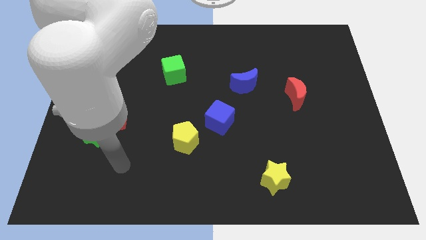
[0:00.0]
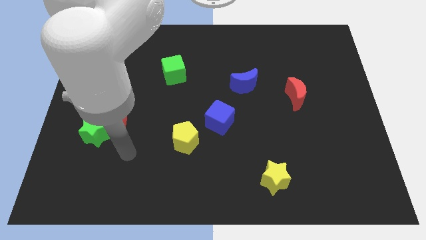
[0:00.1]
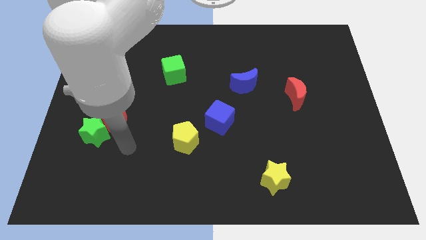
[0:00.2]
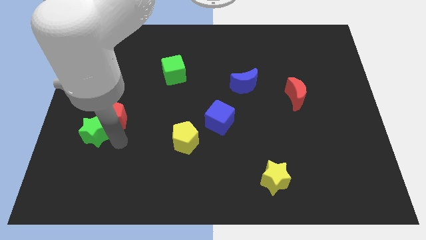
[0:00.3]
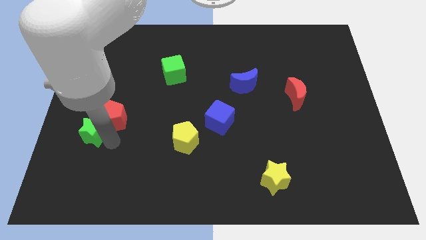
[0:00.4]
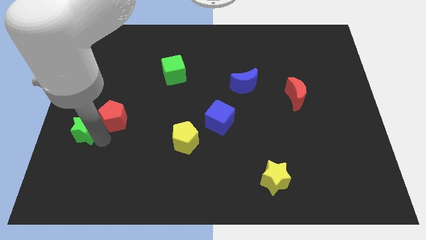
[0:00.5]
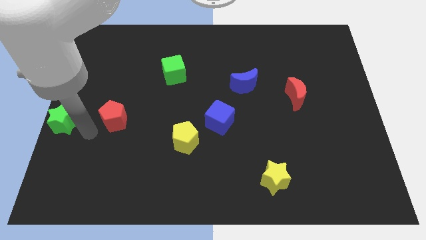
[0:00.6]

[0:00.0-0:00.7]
separate the red pentagon from the green star

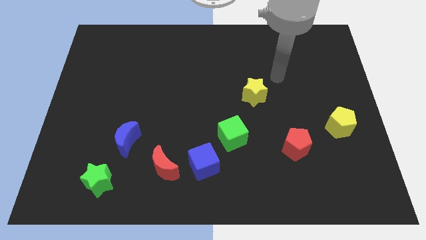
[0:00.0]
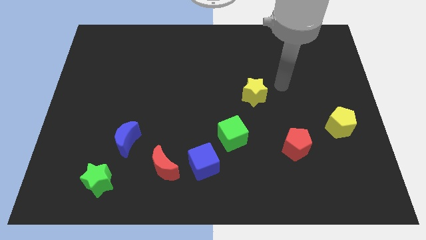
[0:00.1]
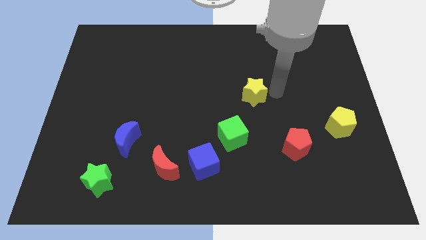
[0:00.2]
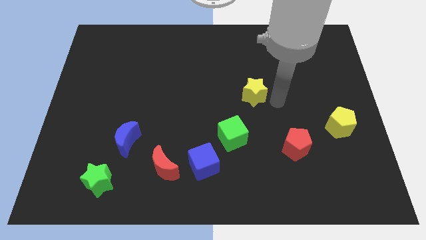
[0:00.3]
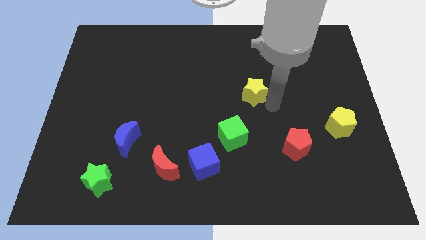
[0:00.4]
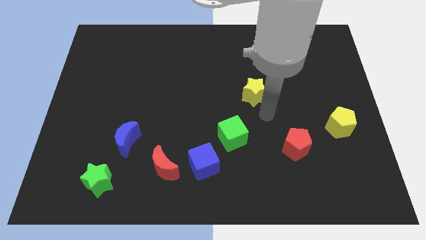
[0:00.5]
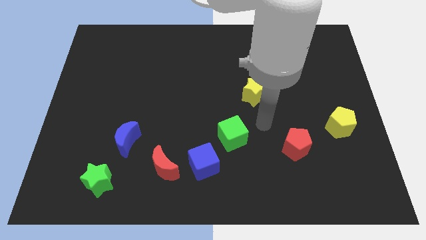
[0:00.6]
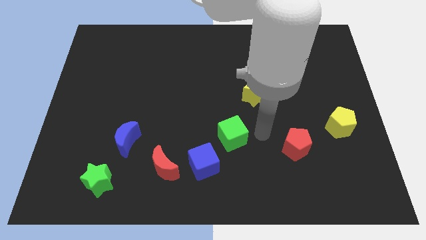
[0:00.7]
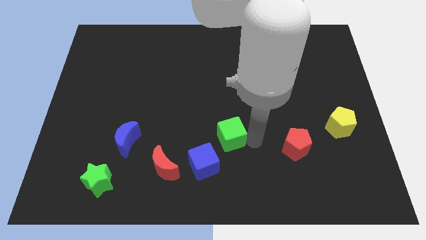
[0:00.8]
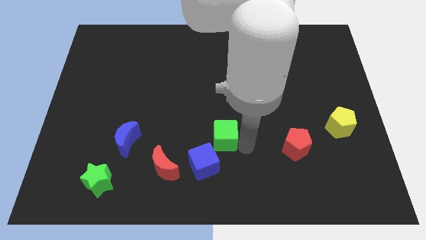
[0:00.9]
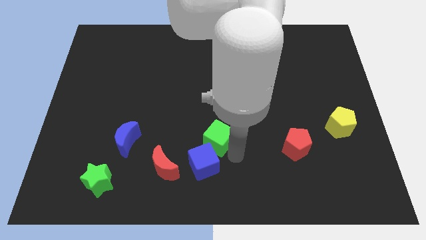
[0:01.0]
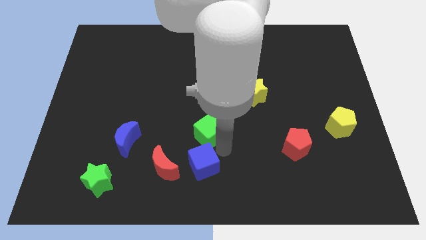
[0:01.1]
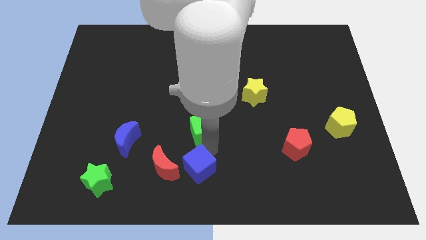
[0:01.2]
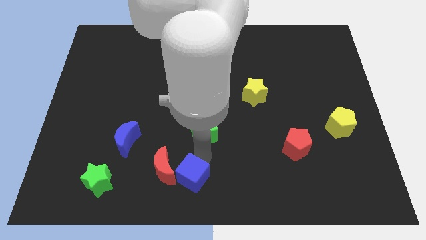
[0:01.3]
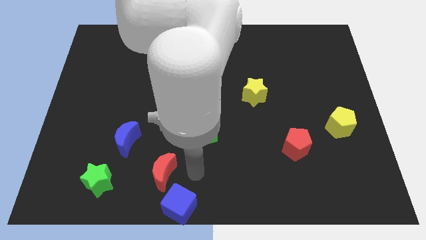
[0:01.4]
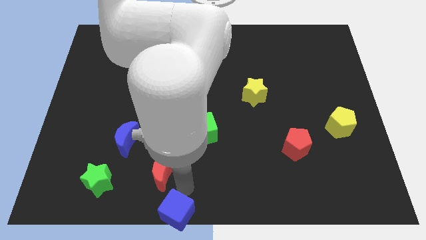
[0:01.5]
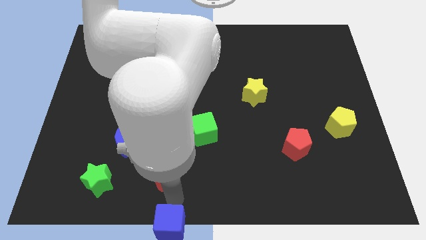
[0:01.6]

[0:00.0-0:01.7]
pull the red moon apart from the blue cube

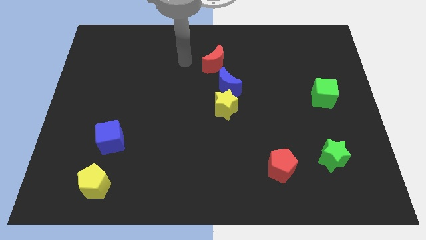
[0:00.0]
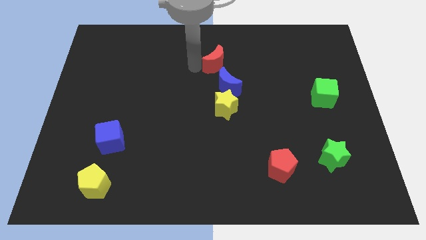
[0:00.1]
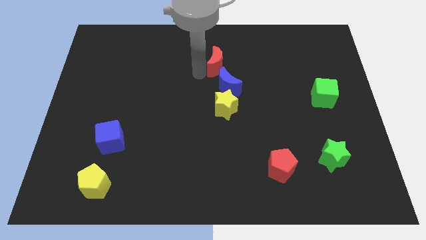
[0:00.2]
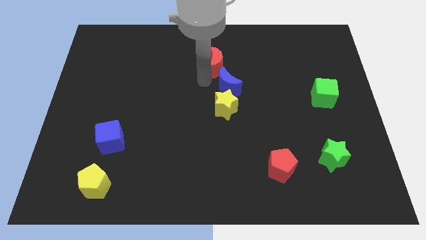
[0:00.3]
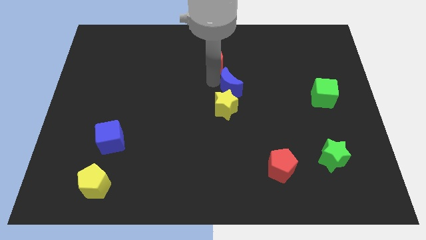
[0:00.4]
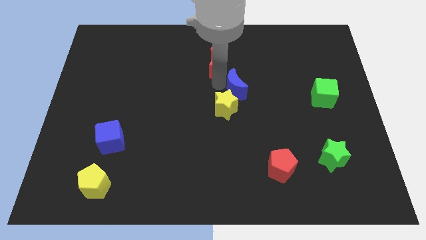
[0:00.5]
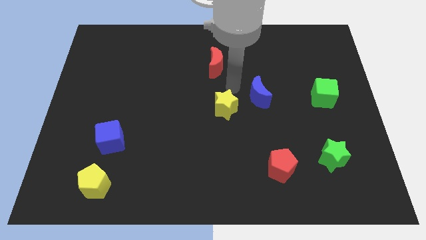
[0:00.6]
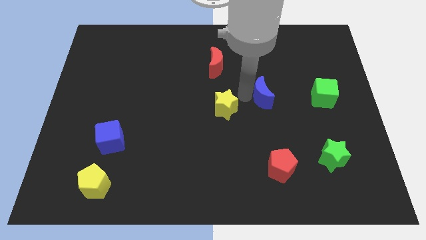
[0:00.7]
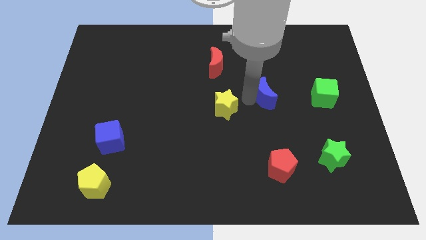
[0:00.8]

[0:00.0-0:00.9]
move the yellow star away from the blue moon

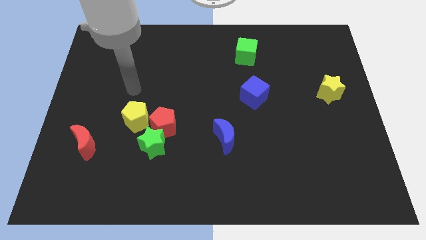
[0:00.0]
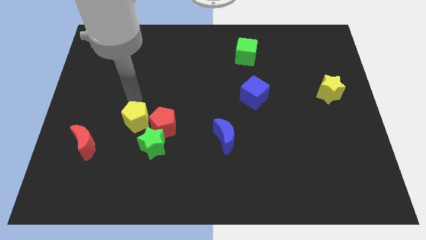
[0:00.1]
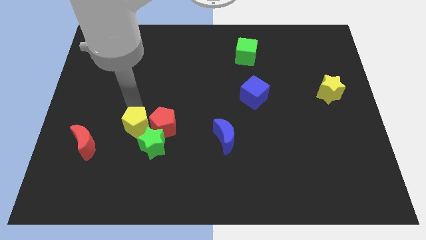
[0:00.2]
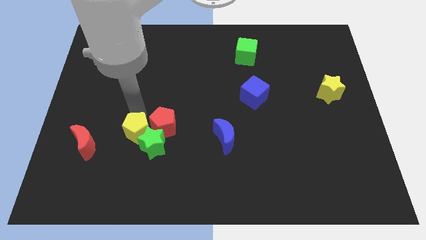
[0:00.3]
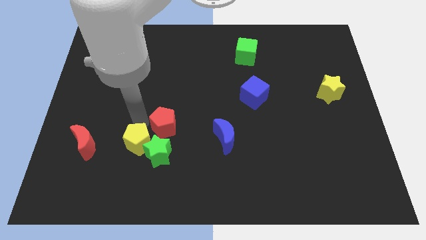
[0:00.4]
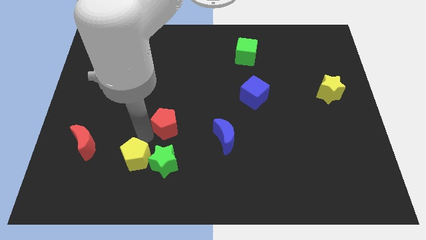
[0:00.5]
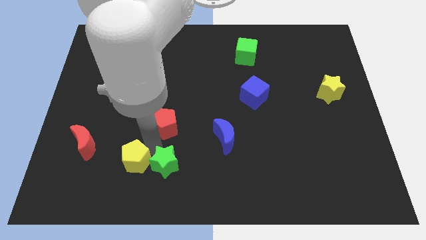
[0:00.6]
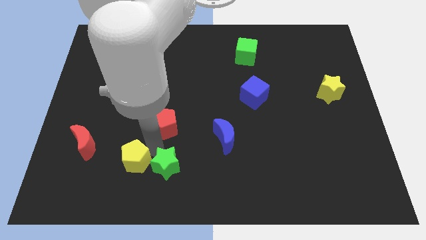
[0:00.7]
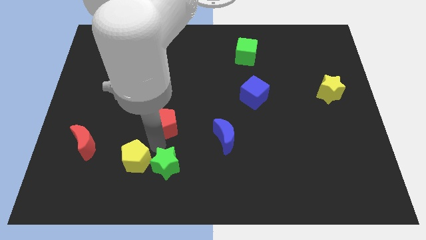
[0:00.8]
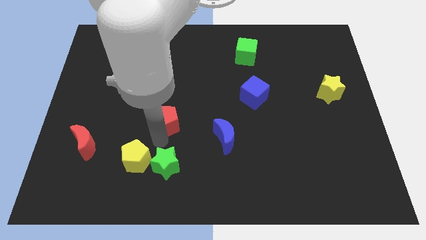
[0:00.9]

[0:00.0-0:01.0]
move the red pentagon away from the green star and yellow pentagon

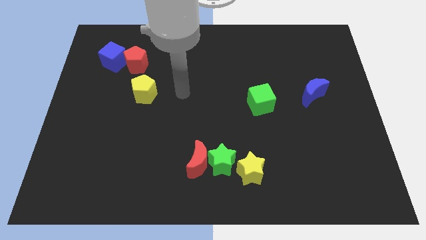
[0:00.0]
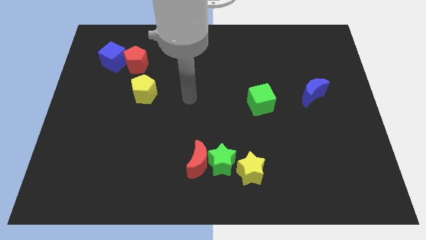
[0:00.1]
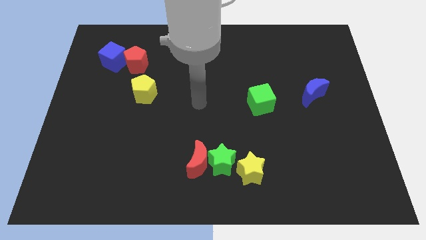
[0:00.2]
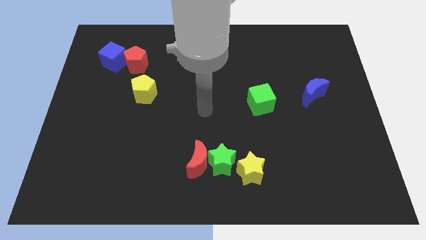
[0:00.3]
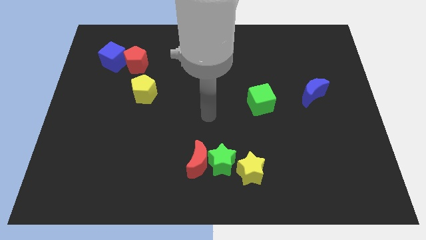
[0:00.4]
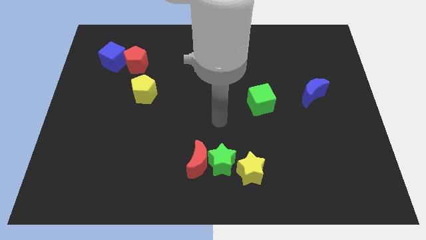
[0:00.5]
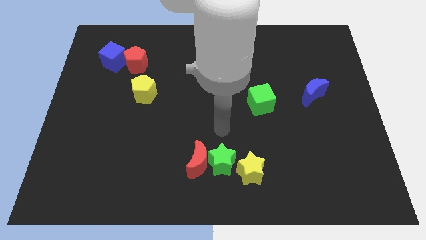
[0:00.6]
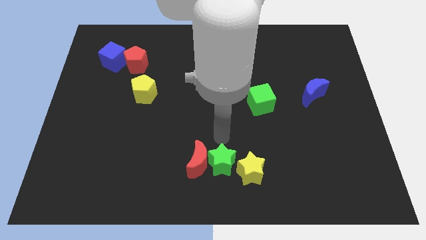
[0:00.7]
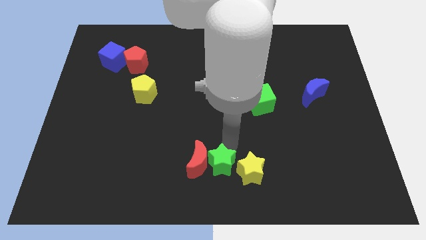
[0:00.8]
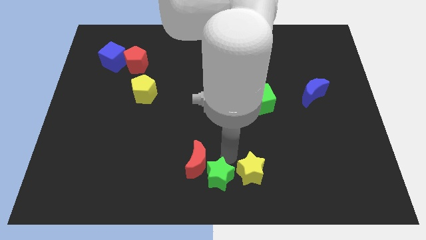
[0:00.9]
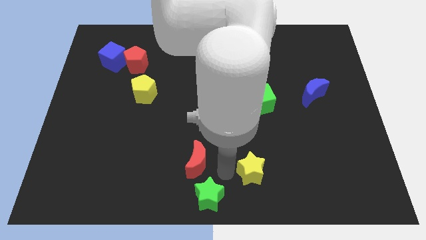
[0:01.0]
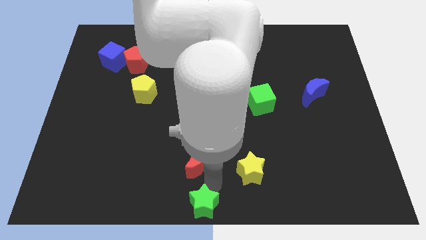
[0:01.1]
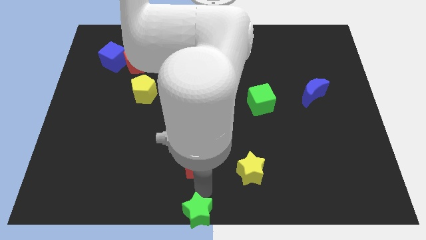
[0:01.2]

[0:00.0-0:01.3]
pull the red moon apart from the green star

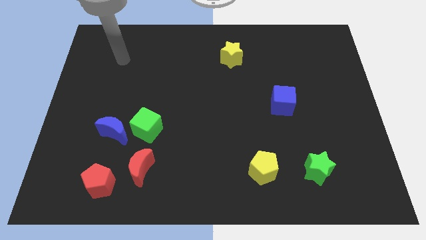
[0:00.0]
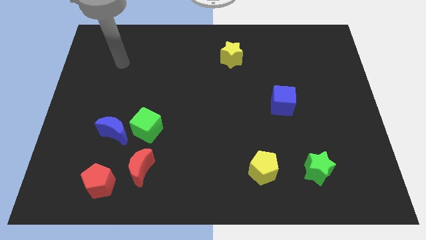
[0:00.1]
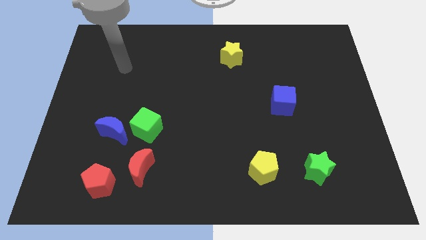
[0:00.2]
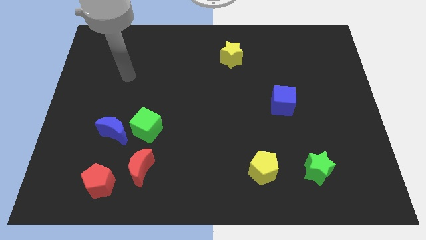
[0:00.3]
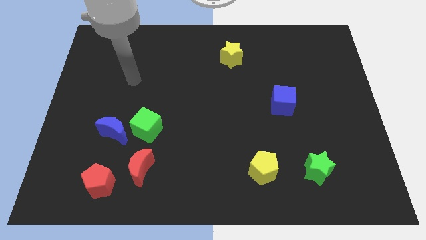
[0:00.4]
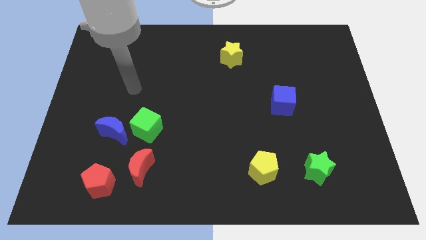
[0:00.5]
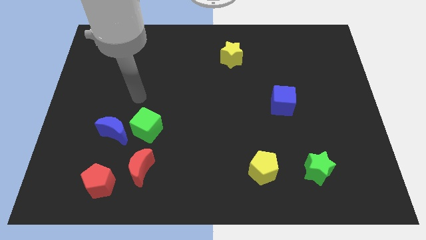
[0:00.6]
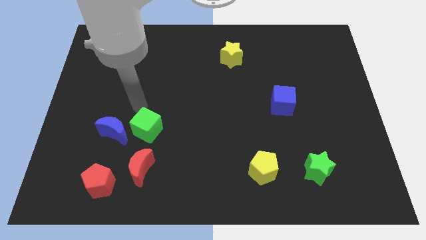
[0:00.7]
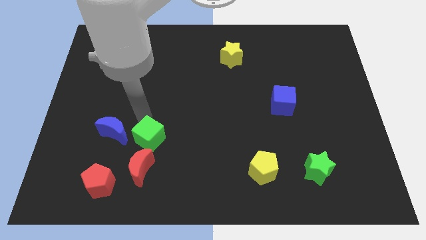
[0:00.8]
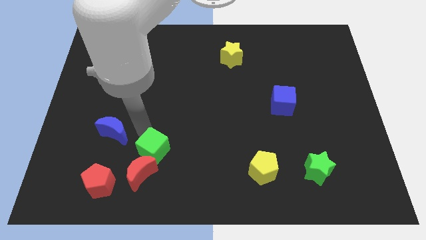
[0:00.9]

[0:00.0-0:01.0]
pull the blue moon apart from the green cube

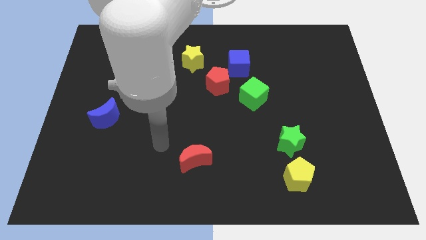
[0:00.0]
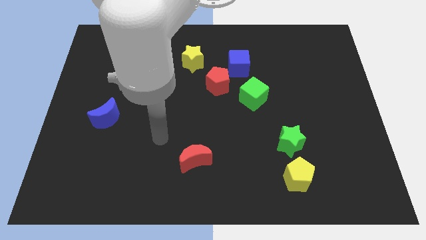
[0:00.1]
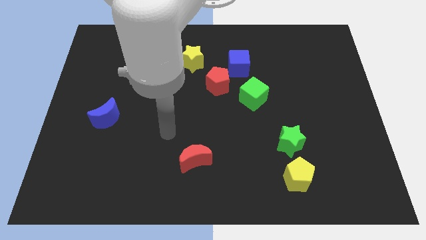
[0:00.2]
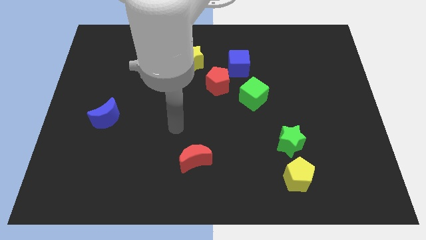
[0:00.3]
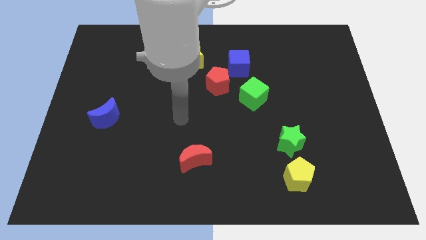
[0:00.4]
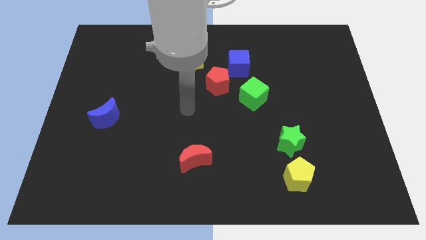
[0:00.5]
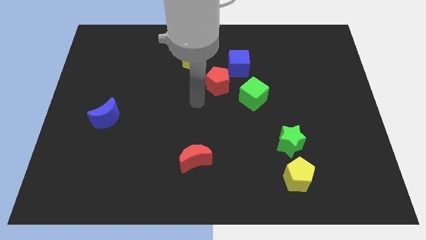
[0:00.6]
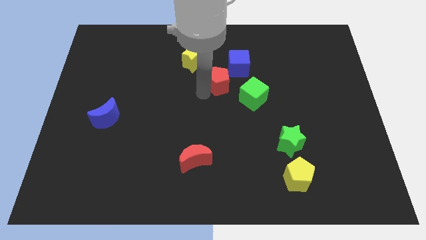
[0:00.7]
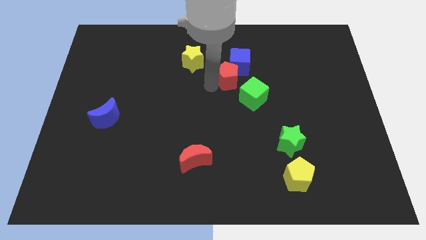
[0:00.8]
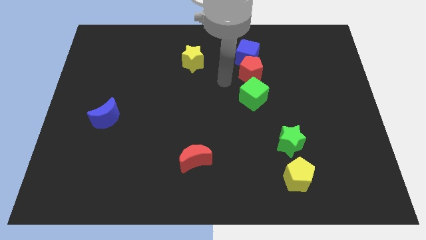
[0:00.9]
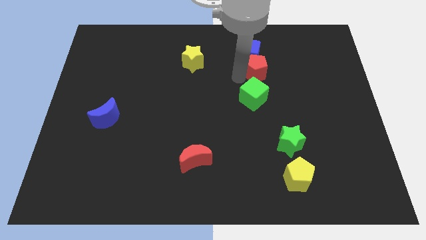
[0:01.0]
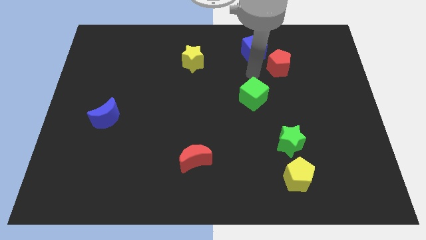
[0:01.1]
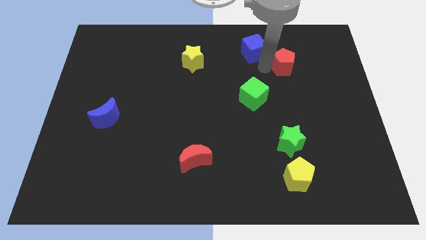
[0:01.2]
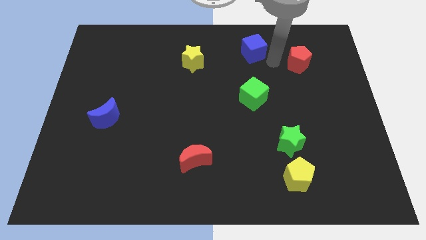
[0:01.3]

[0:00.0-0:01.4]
separate the blue cube from the red pentagon

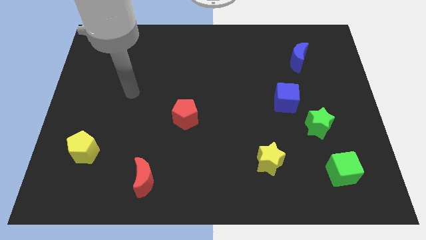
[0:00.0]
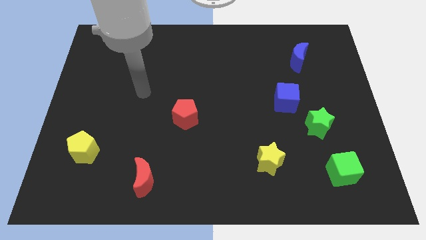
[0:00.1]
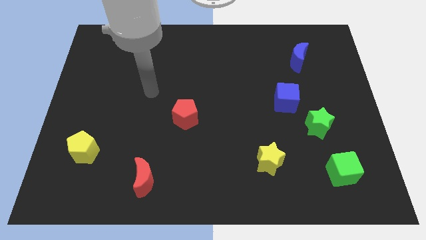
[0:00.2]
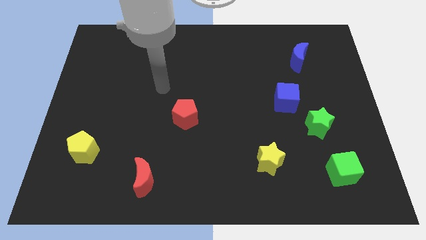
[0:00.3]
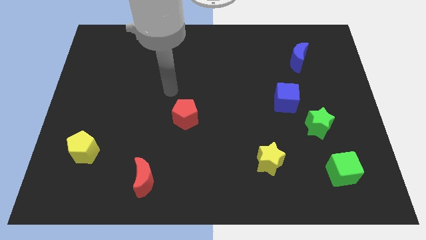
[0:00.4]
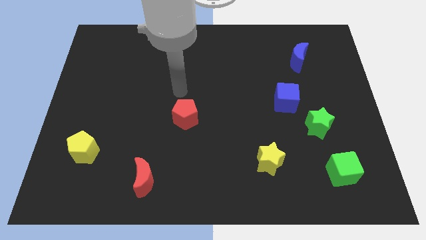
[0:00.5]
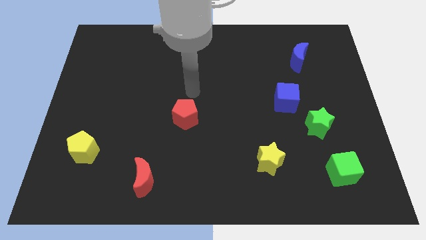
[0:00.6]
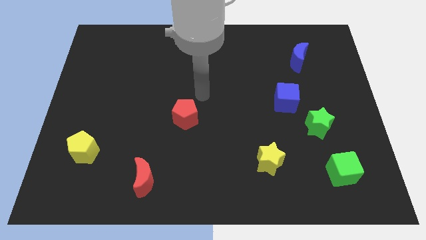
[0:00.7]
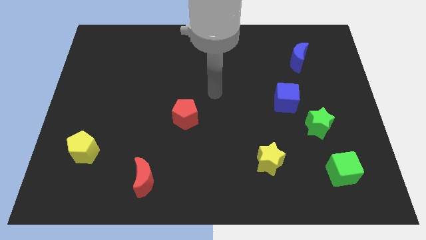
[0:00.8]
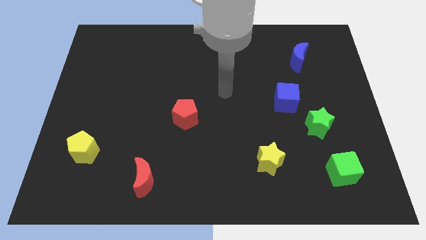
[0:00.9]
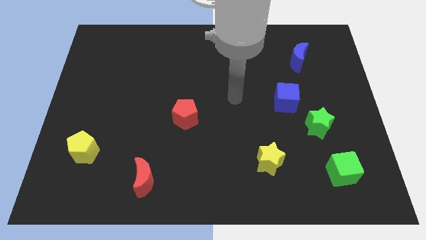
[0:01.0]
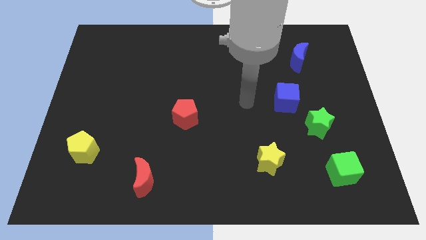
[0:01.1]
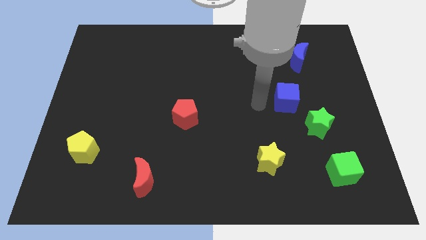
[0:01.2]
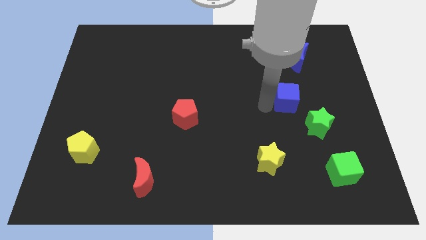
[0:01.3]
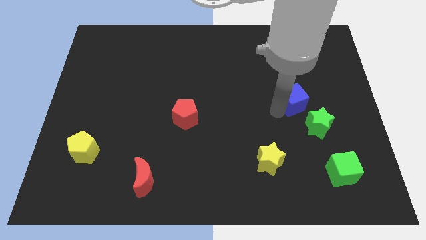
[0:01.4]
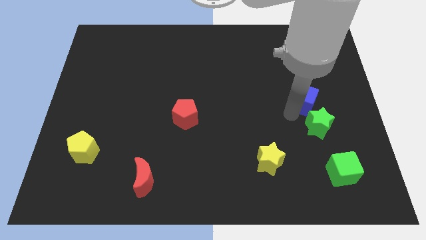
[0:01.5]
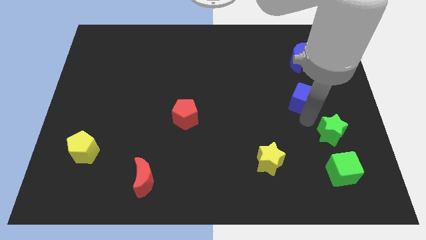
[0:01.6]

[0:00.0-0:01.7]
separate the blue cube from the green star
